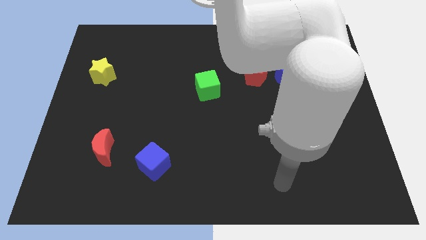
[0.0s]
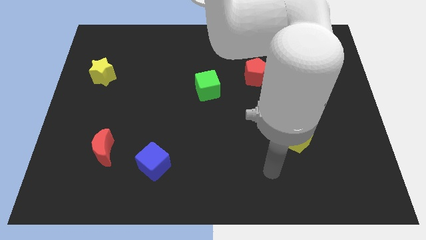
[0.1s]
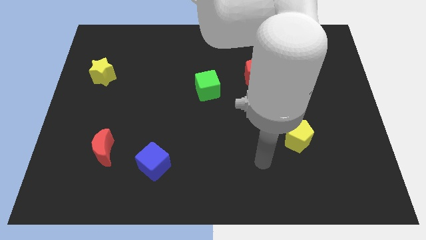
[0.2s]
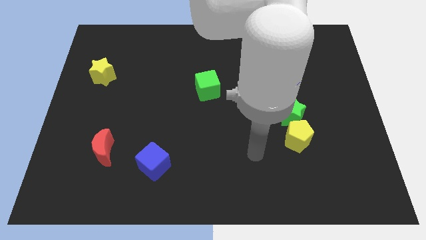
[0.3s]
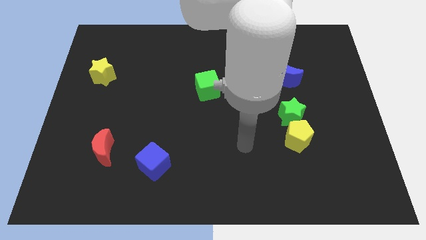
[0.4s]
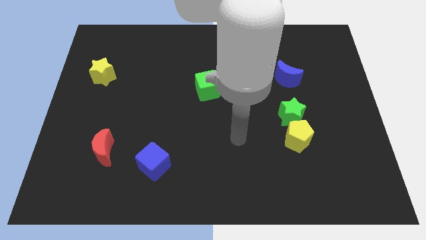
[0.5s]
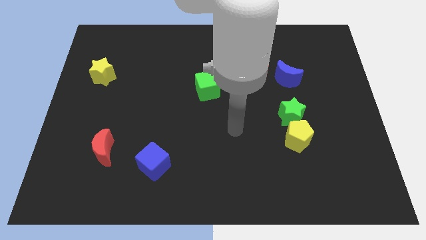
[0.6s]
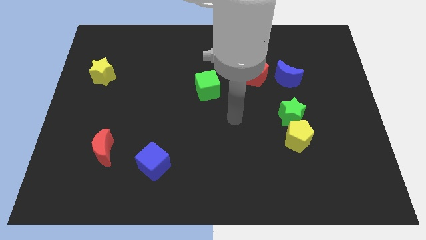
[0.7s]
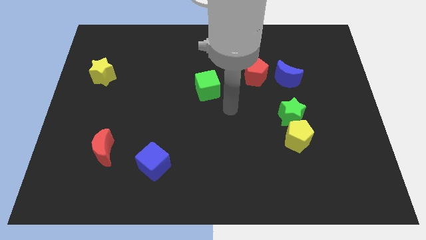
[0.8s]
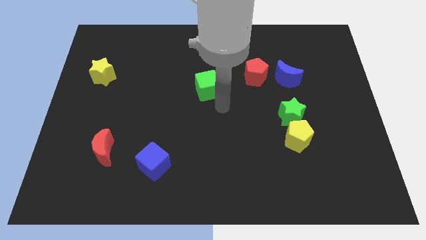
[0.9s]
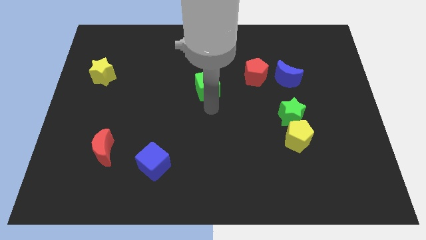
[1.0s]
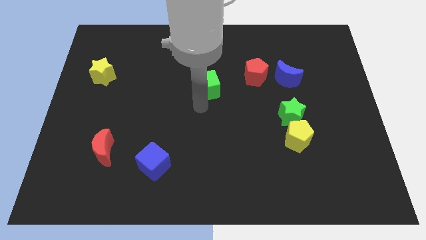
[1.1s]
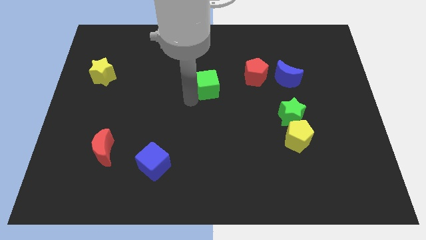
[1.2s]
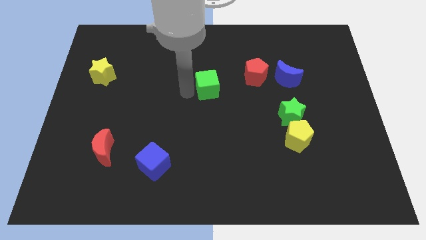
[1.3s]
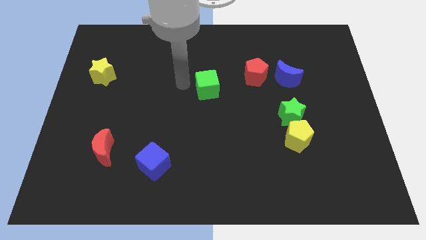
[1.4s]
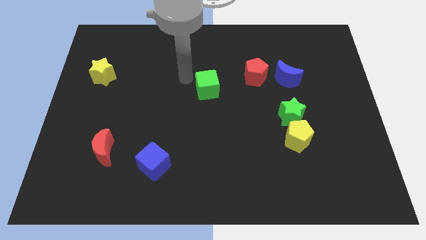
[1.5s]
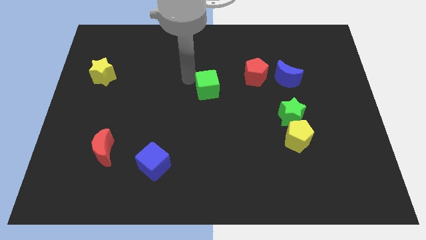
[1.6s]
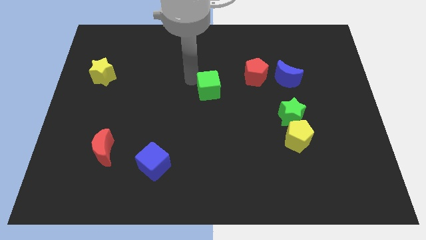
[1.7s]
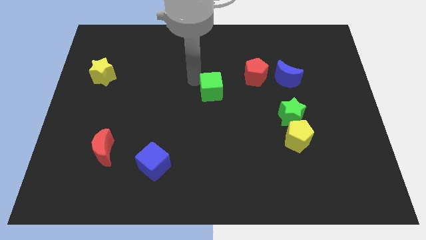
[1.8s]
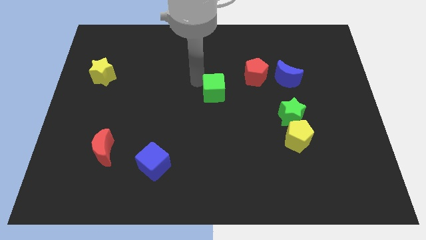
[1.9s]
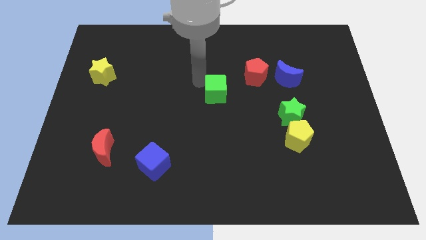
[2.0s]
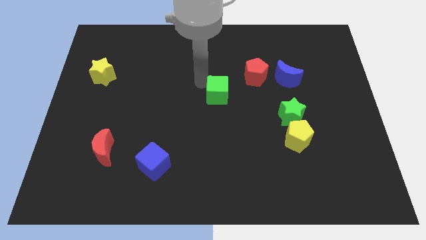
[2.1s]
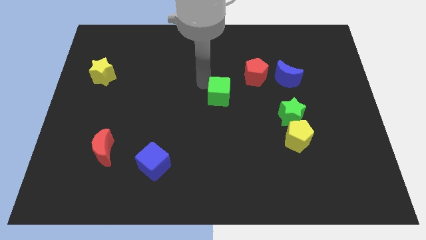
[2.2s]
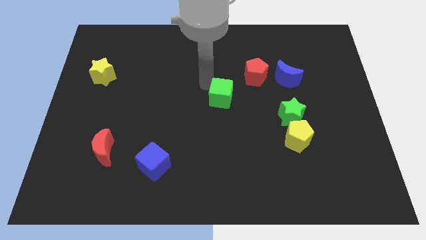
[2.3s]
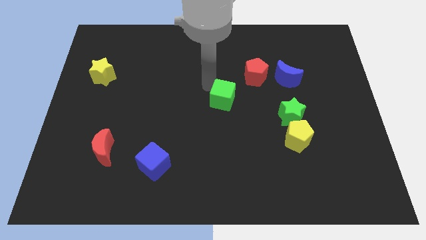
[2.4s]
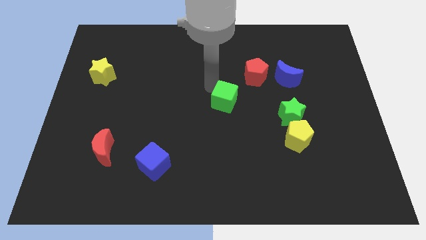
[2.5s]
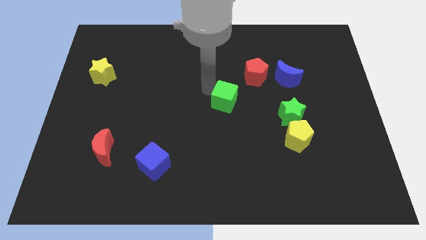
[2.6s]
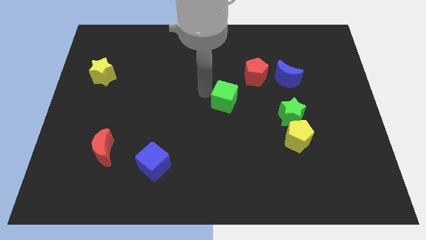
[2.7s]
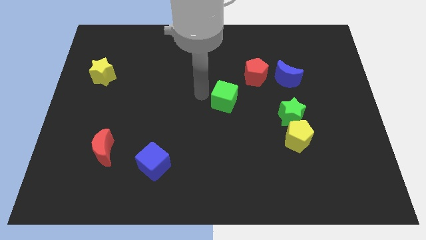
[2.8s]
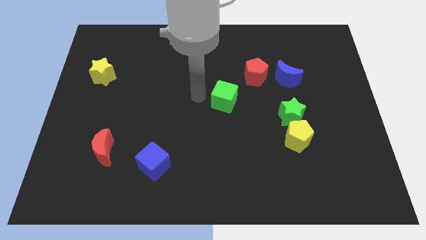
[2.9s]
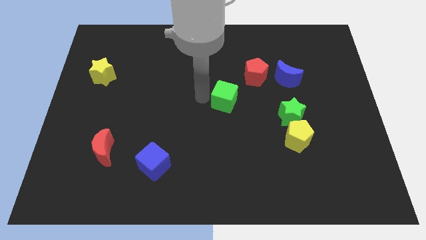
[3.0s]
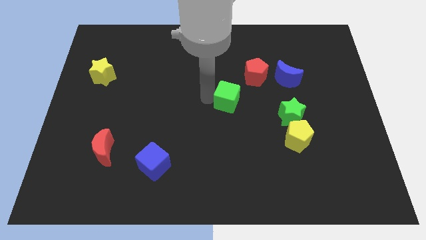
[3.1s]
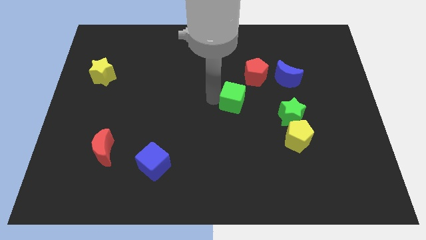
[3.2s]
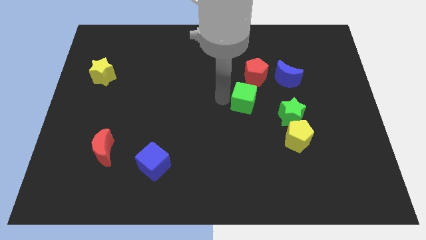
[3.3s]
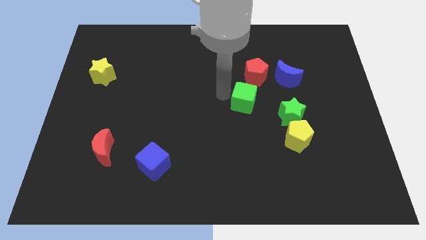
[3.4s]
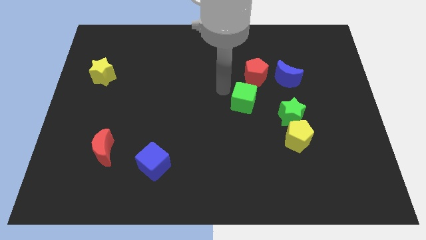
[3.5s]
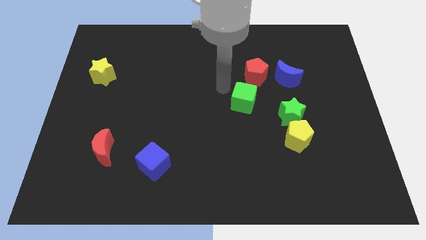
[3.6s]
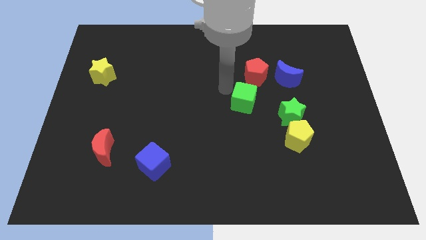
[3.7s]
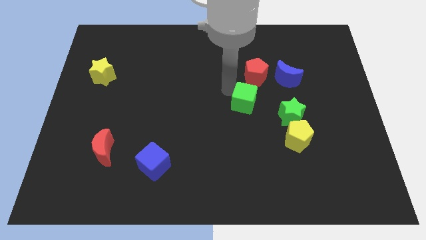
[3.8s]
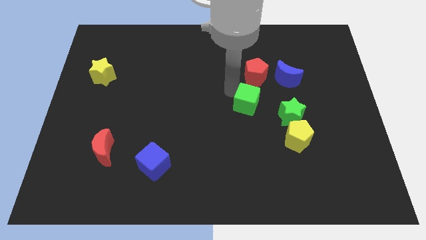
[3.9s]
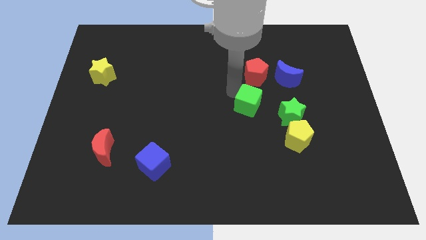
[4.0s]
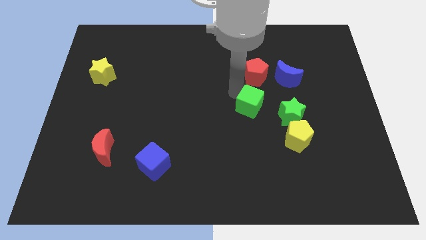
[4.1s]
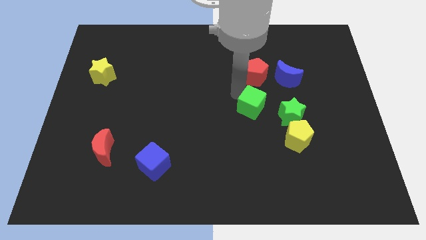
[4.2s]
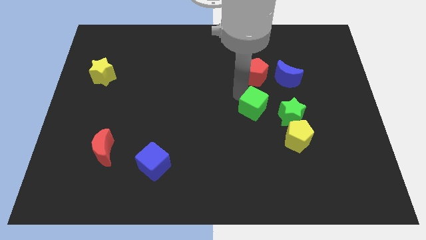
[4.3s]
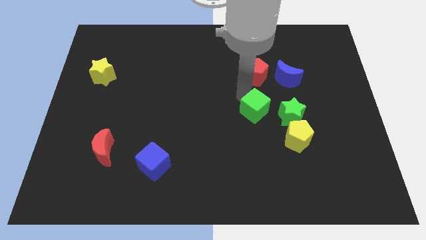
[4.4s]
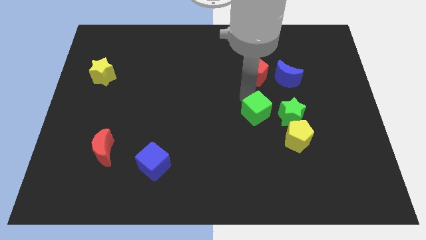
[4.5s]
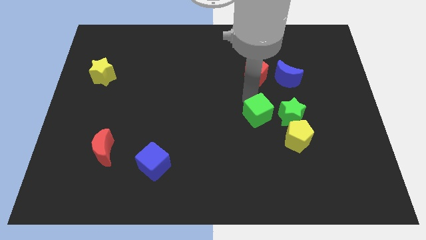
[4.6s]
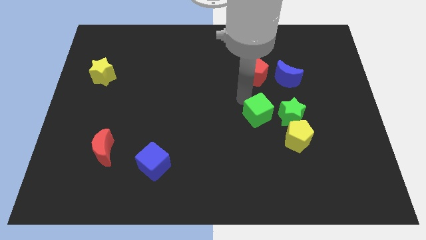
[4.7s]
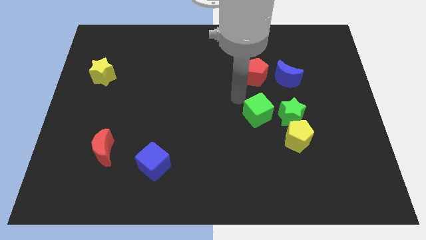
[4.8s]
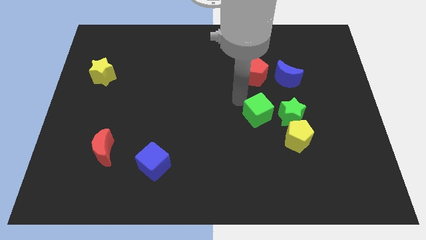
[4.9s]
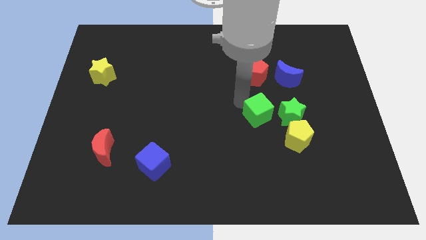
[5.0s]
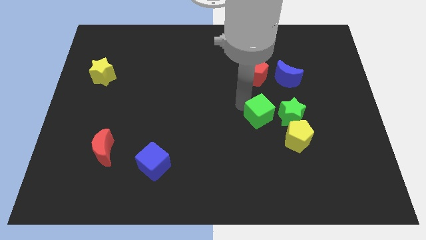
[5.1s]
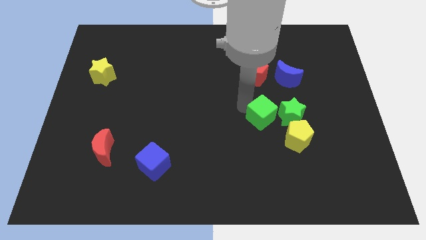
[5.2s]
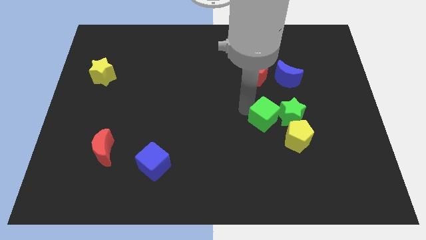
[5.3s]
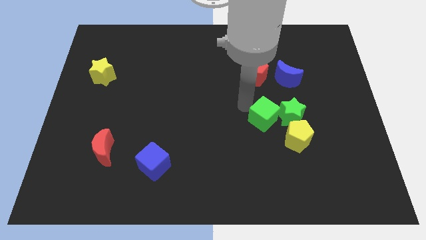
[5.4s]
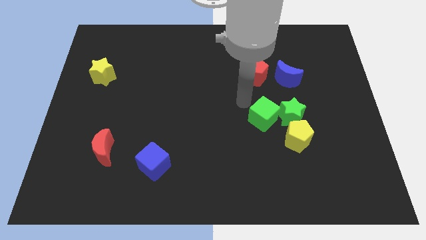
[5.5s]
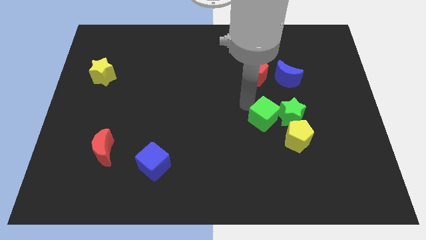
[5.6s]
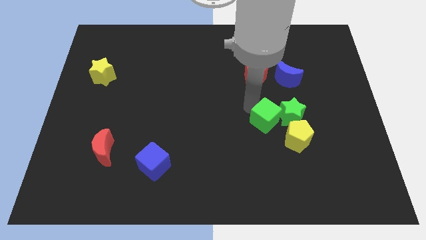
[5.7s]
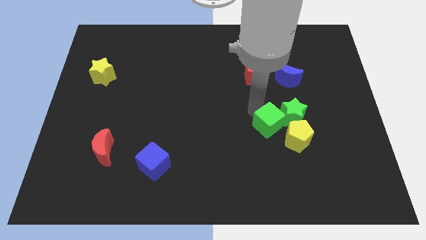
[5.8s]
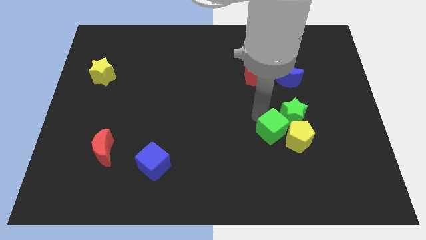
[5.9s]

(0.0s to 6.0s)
slide the green cube next to the yellow pentagon

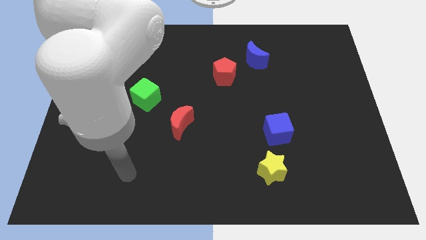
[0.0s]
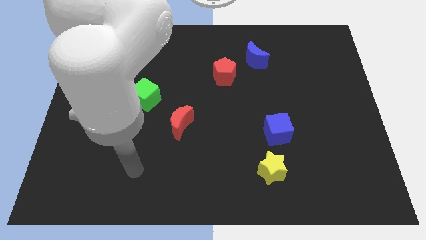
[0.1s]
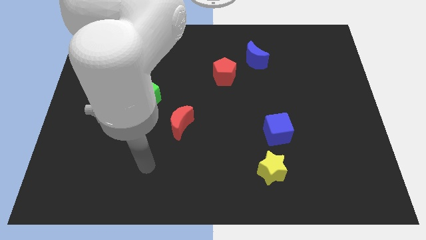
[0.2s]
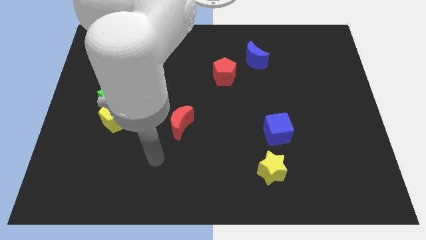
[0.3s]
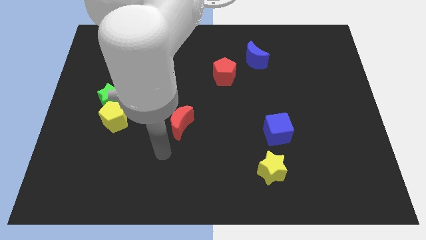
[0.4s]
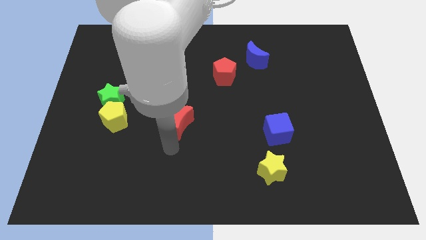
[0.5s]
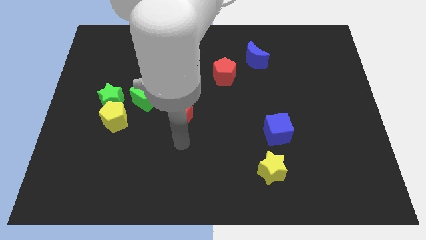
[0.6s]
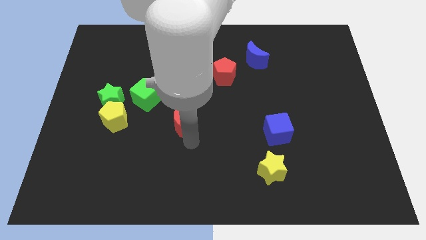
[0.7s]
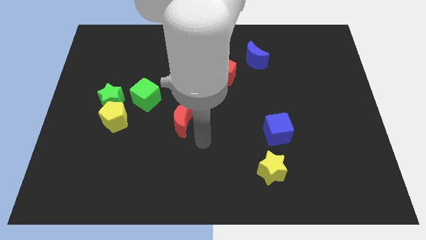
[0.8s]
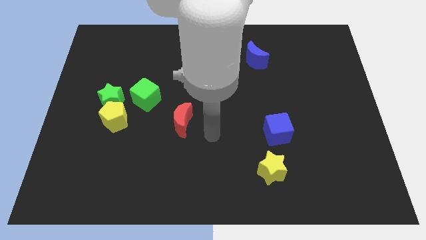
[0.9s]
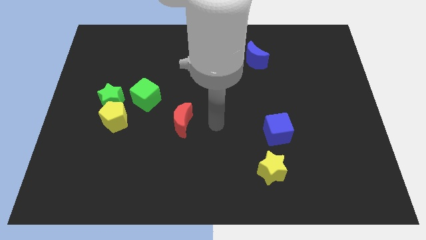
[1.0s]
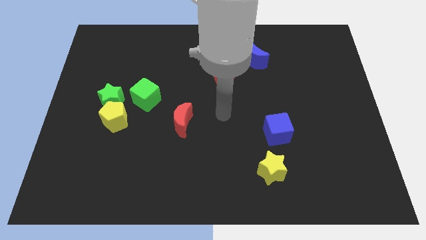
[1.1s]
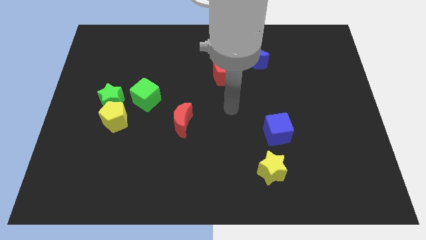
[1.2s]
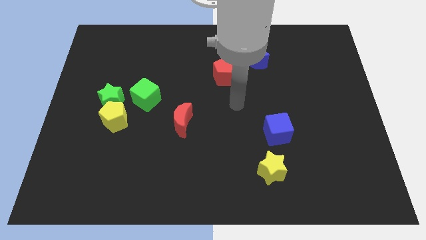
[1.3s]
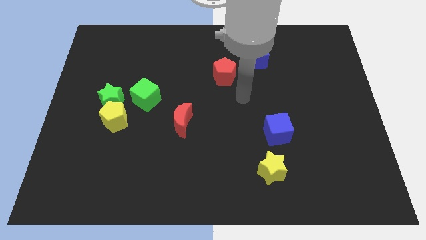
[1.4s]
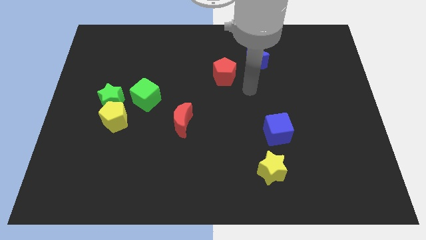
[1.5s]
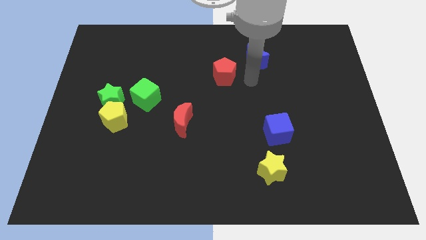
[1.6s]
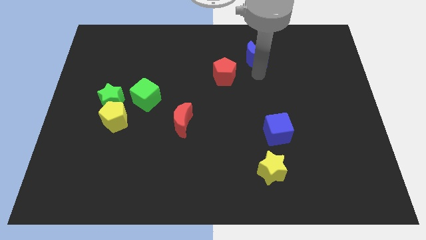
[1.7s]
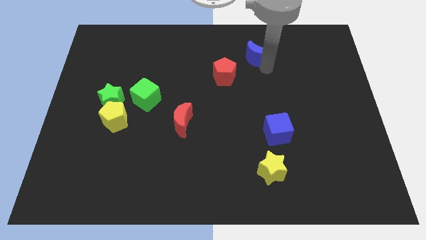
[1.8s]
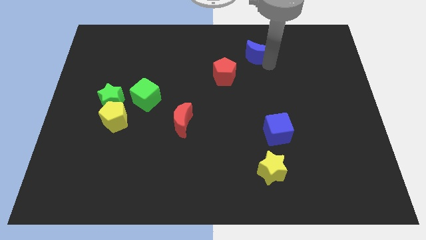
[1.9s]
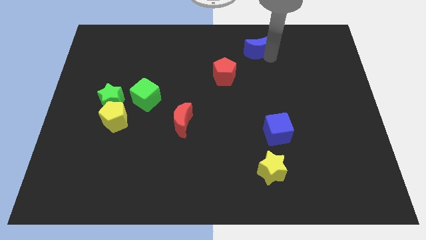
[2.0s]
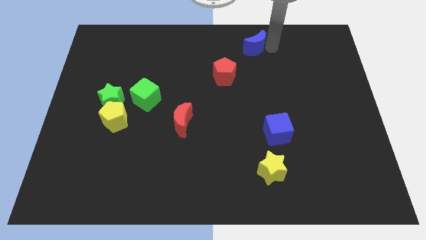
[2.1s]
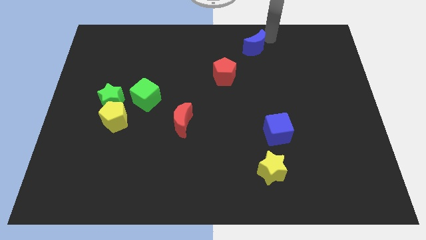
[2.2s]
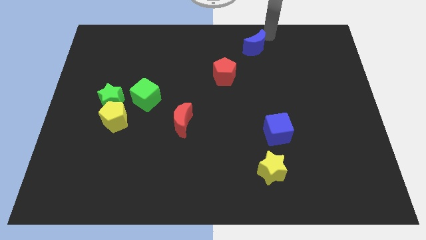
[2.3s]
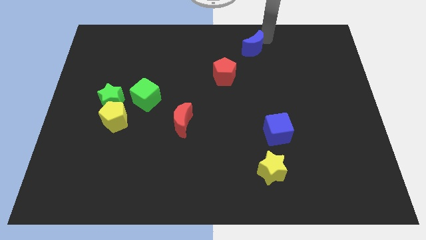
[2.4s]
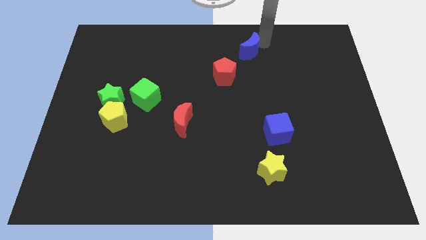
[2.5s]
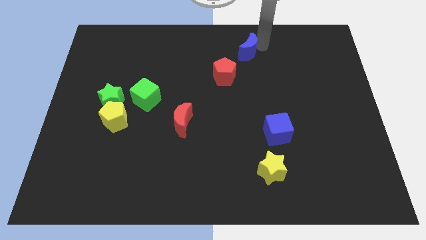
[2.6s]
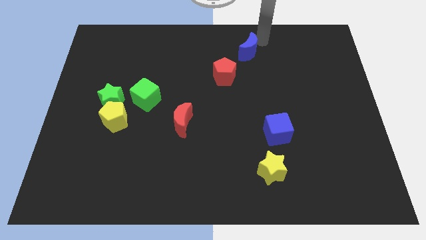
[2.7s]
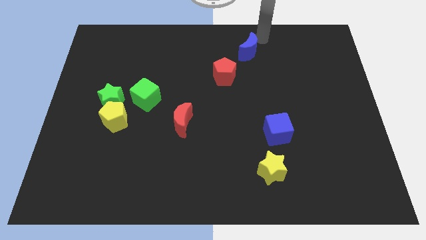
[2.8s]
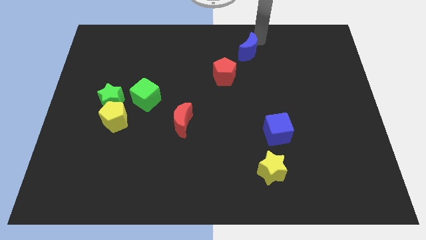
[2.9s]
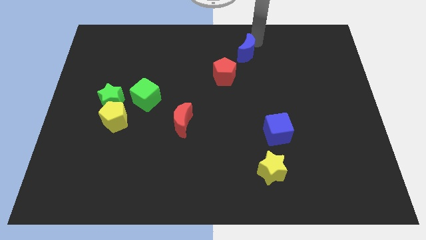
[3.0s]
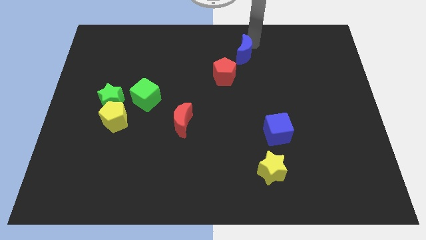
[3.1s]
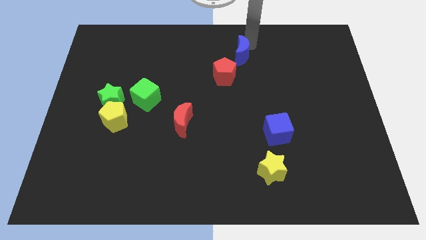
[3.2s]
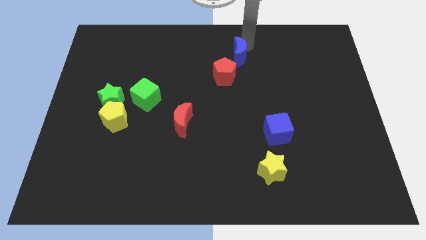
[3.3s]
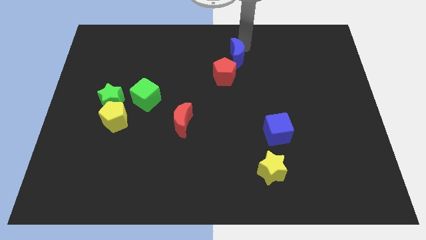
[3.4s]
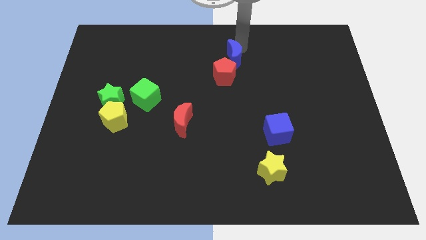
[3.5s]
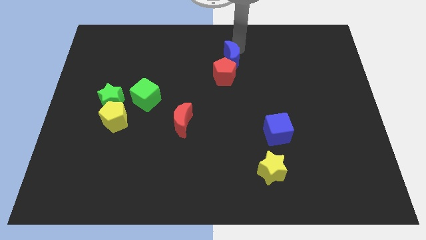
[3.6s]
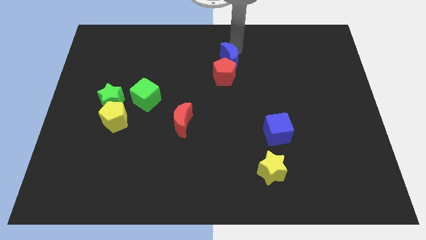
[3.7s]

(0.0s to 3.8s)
move the blue moon next to the red pentagon
